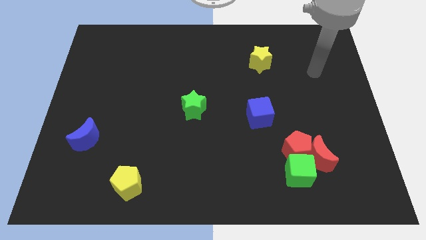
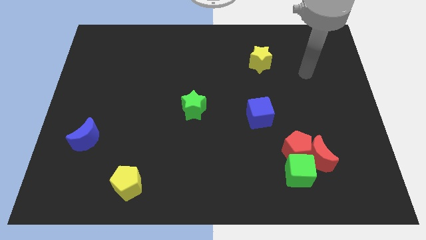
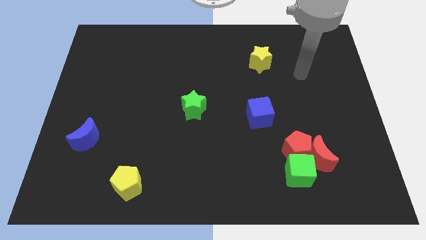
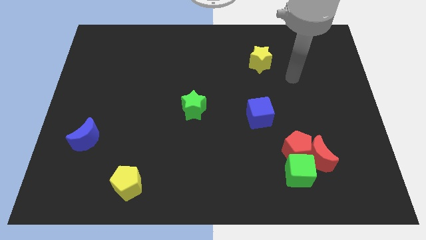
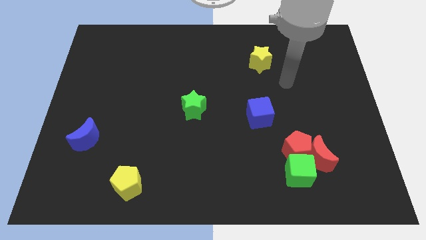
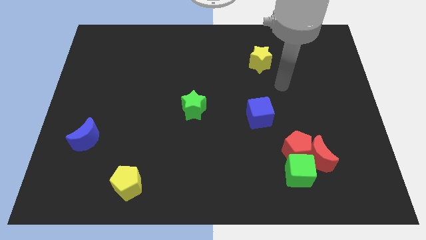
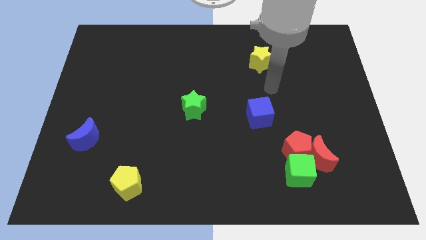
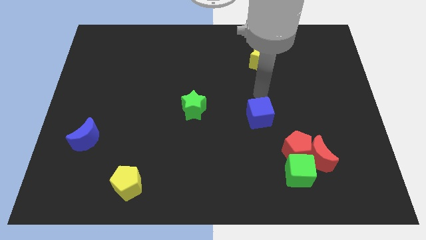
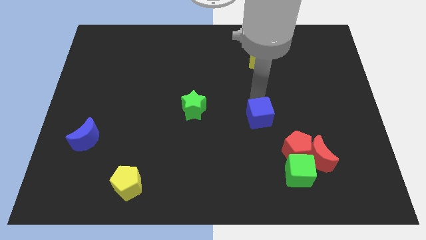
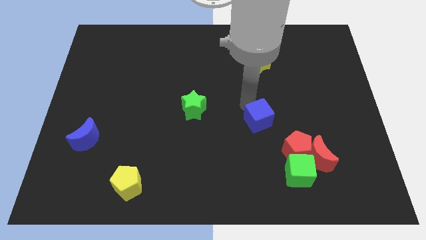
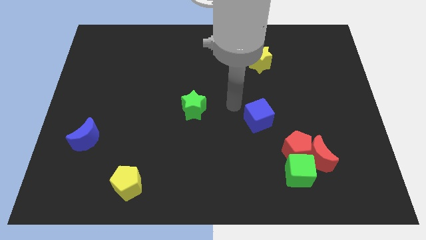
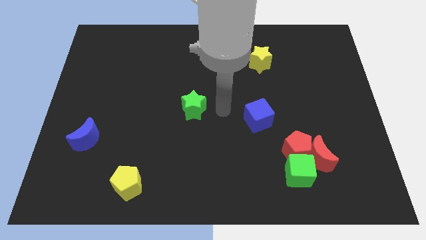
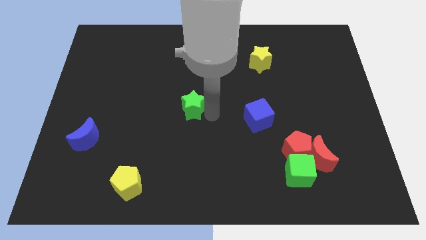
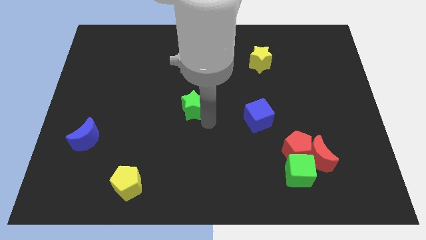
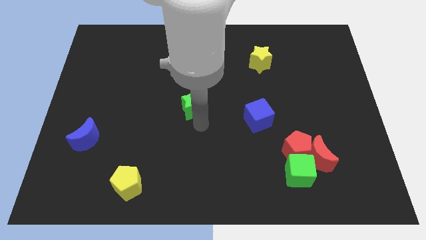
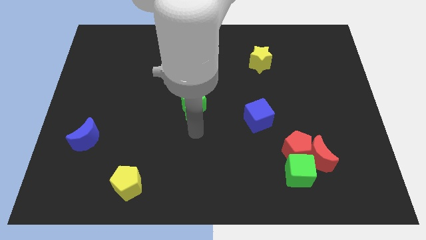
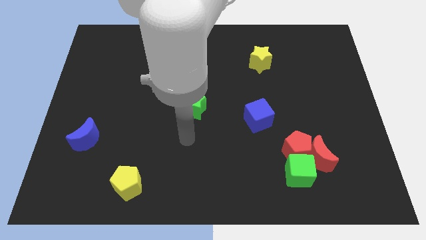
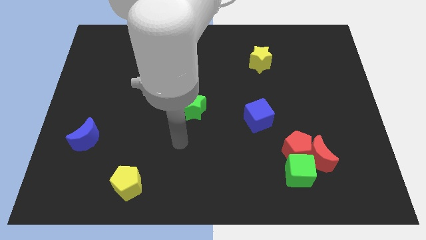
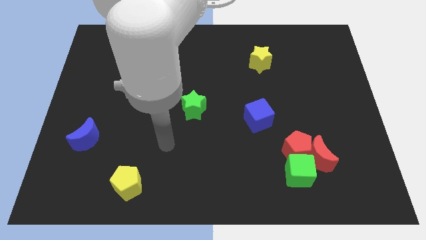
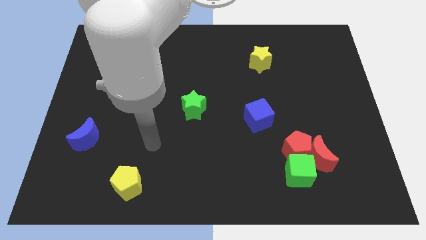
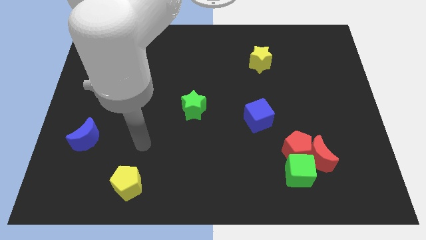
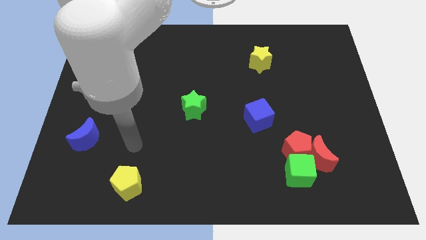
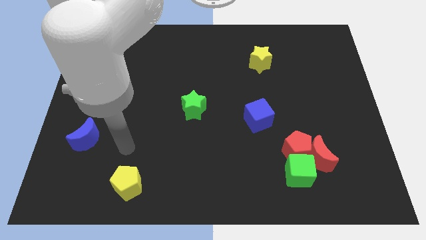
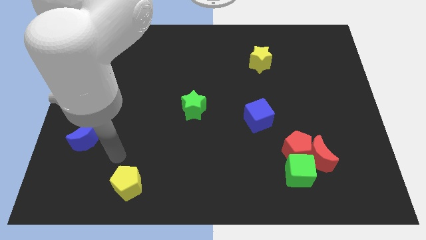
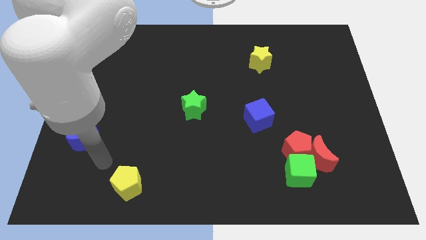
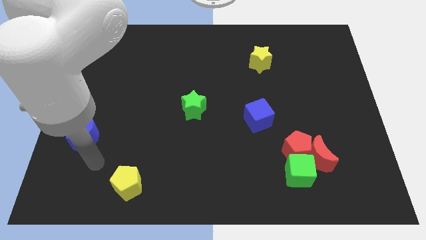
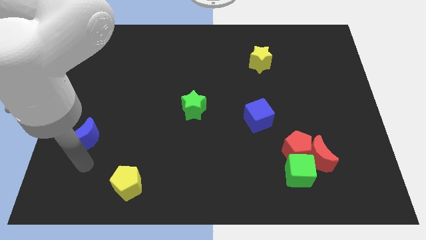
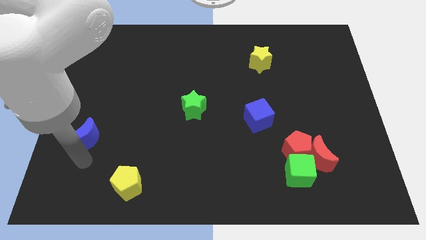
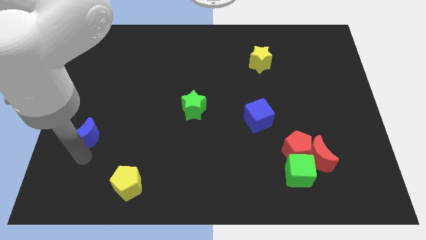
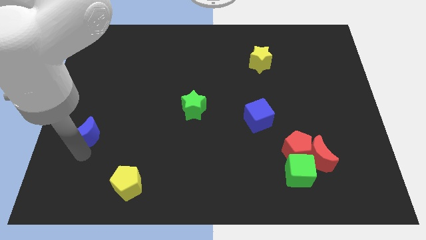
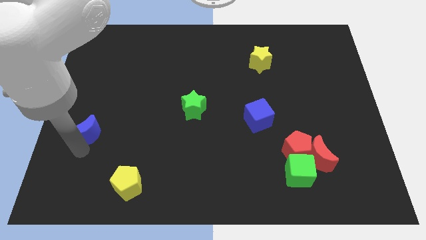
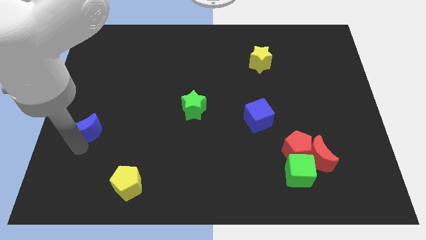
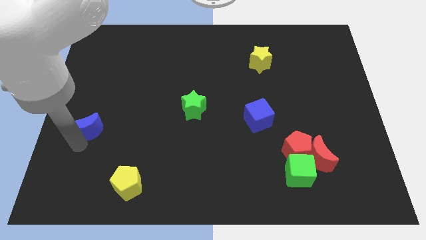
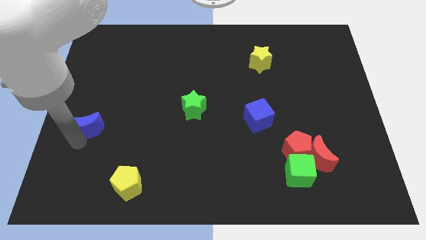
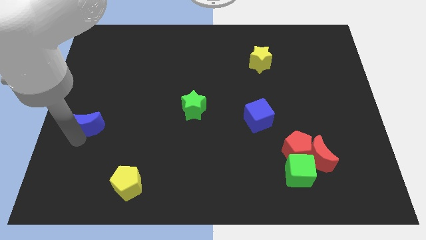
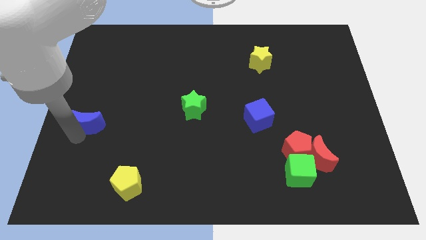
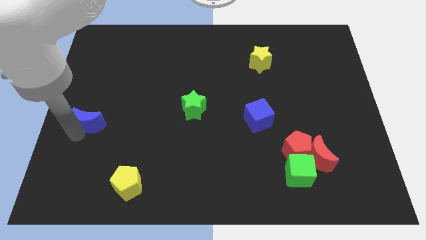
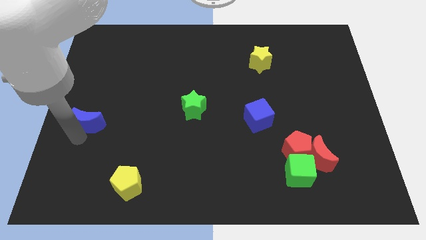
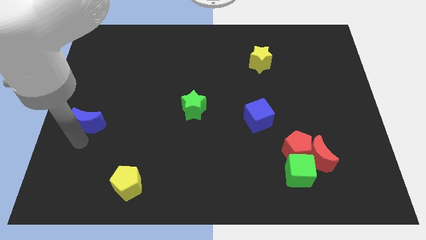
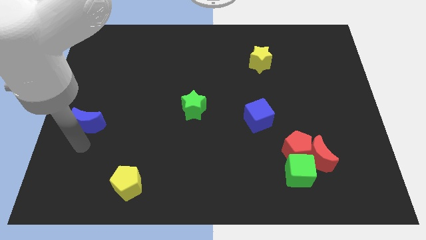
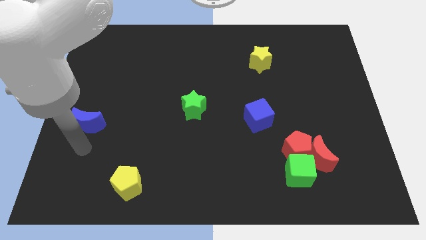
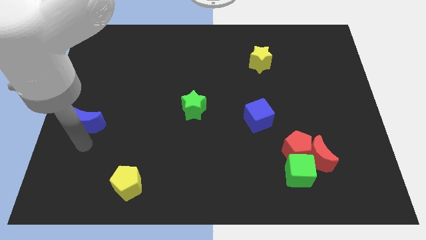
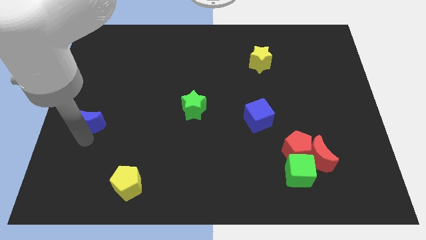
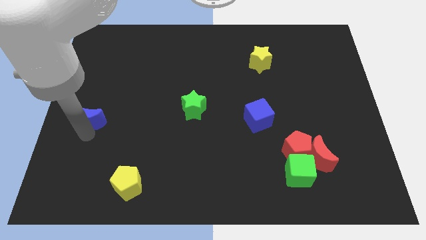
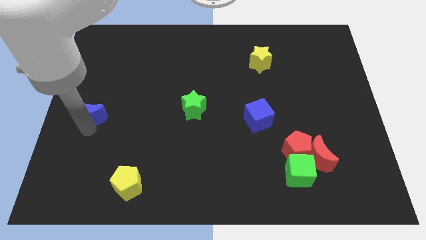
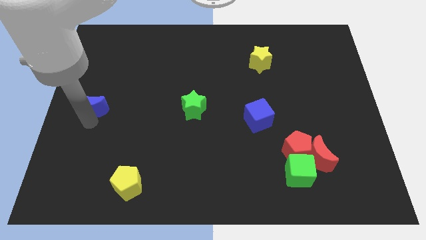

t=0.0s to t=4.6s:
push the blue moon up a little

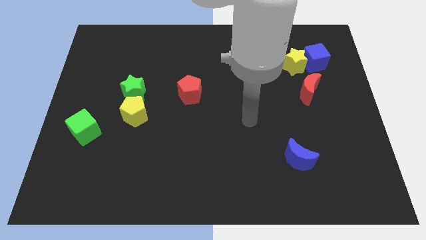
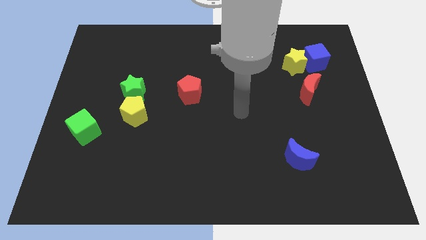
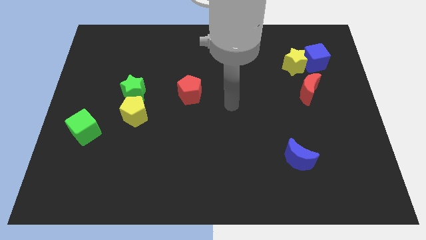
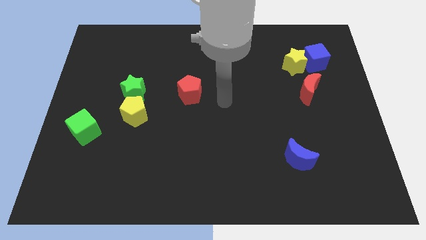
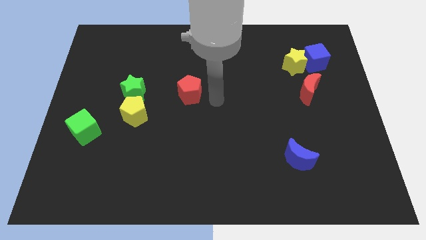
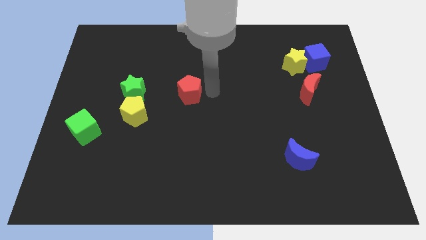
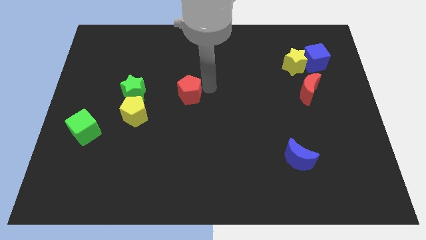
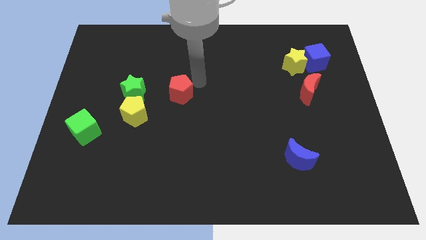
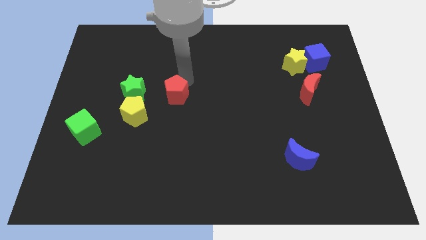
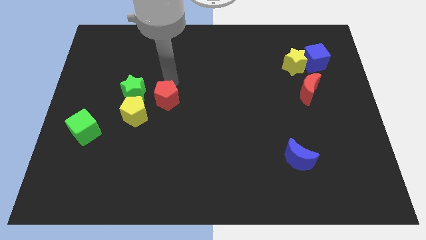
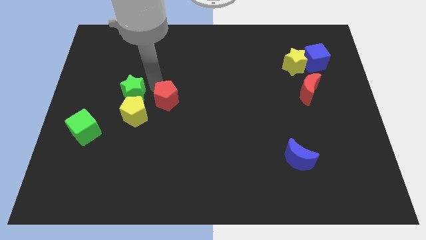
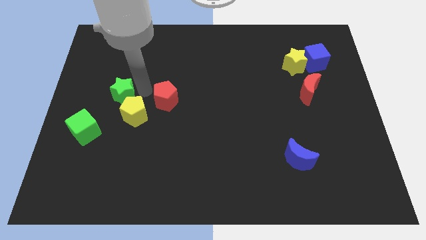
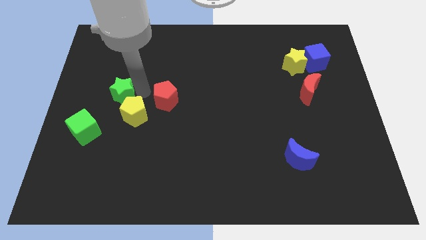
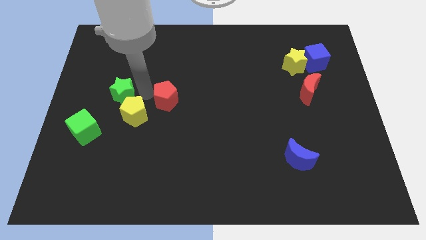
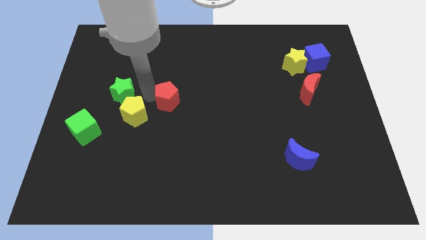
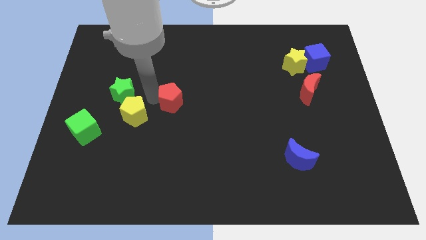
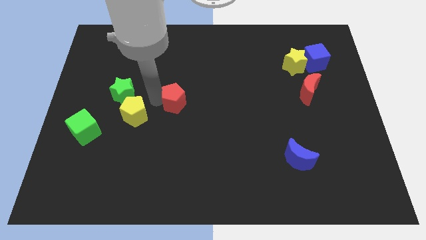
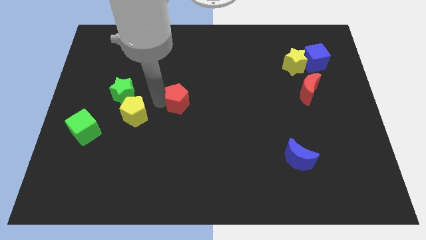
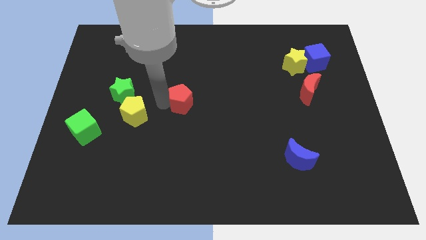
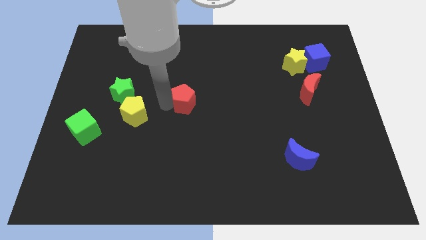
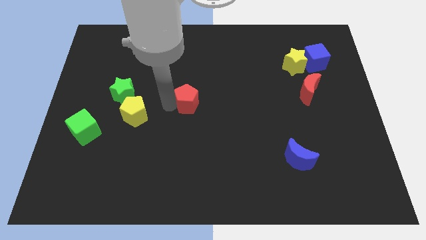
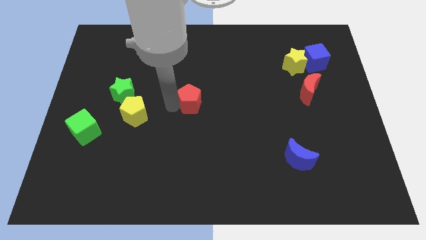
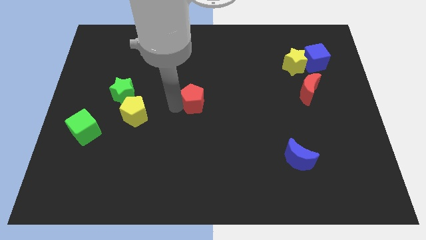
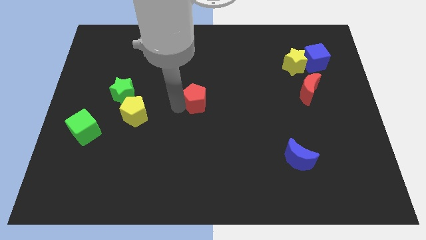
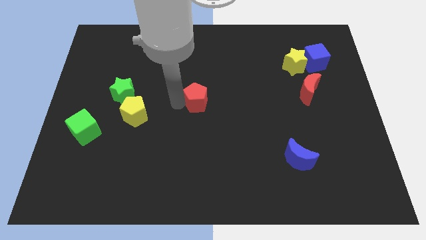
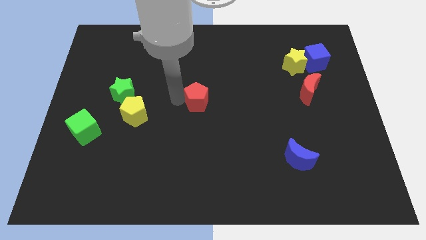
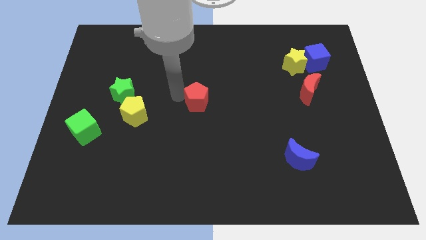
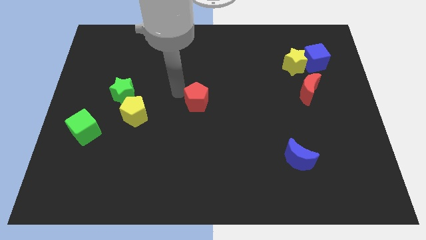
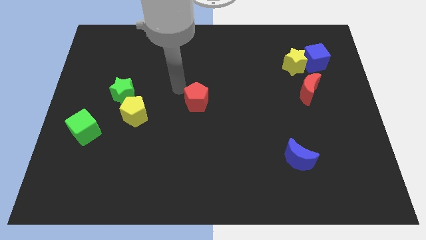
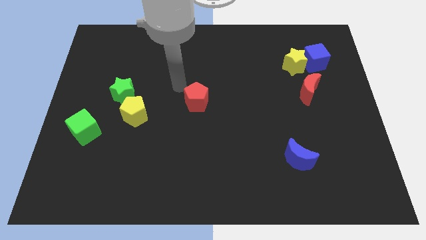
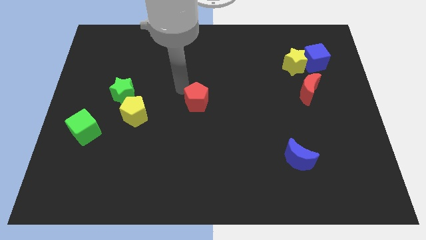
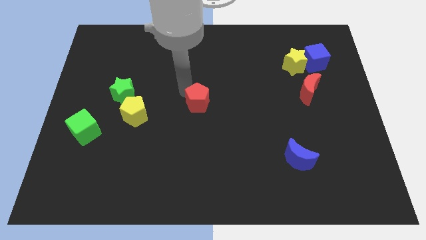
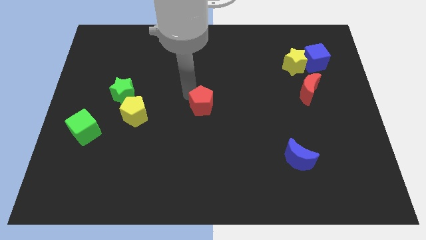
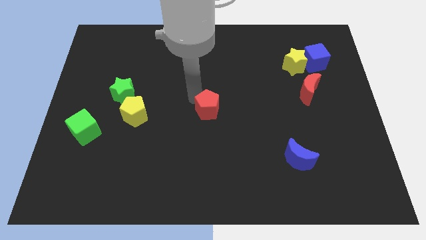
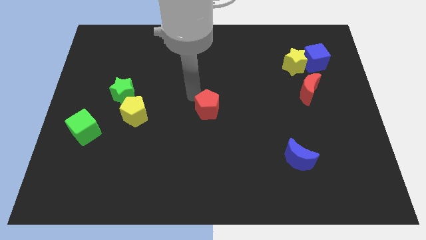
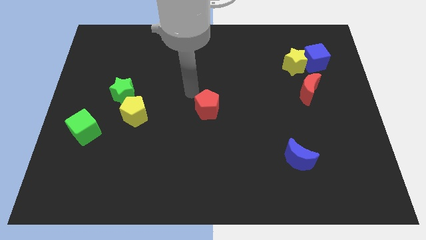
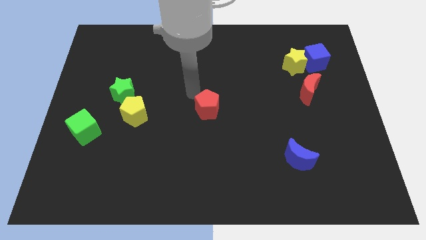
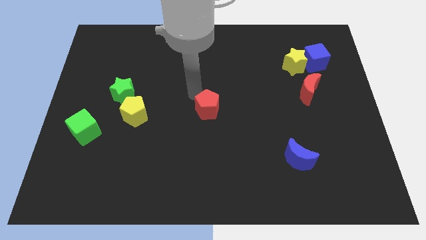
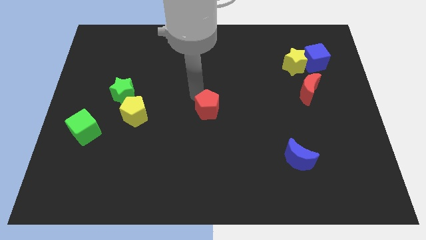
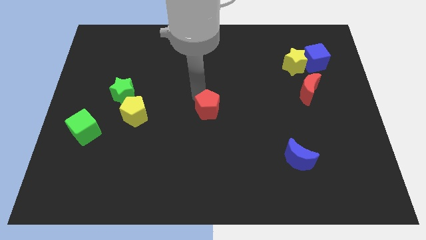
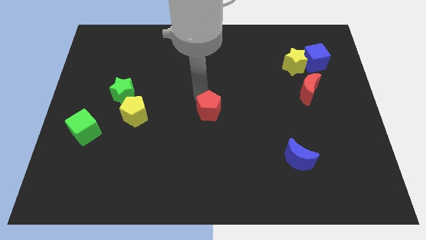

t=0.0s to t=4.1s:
slide the red pentagon a bit down and then right
